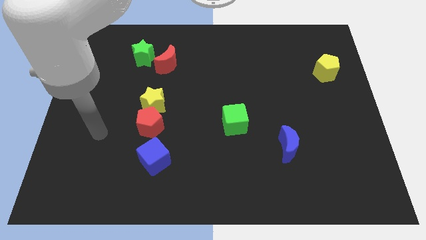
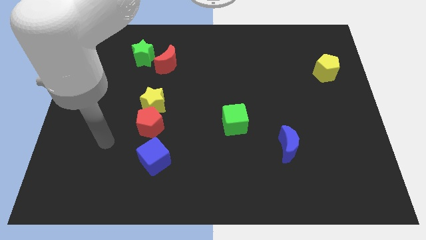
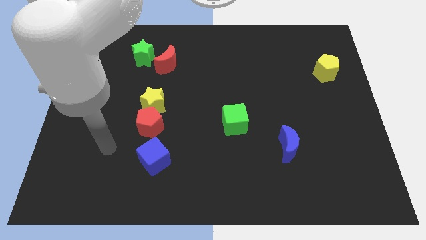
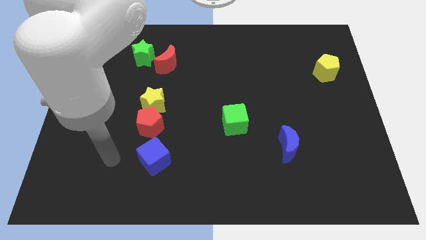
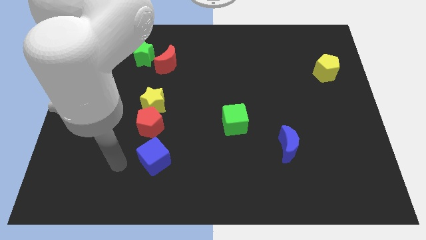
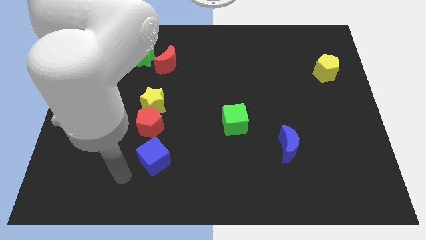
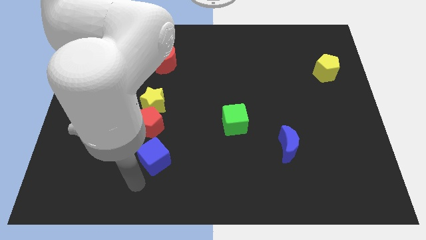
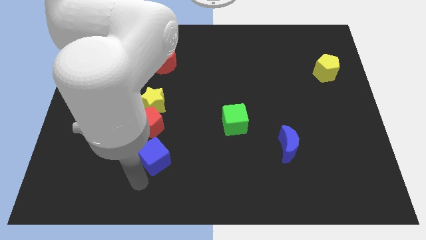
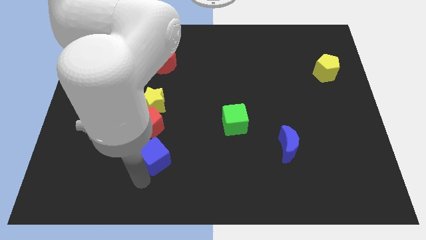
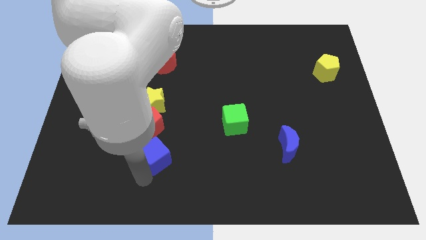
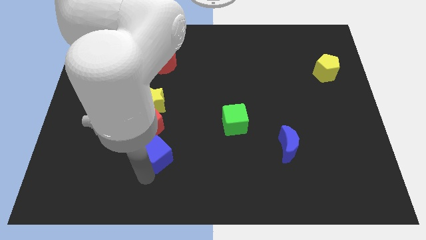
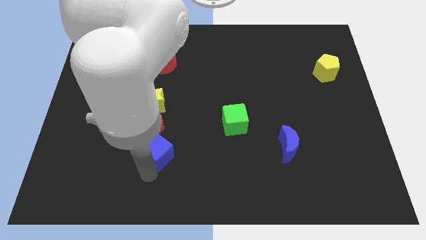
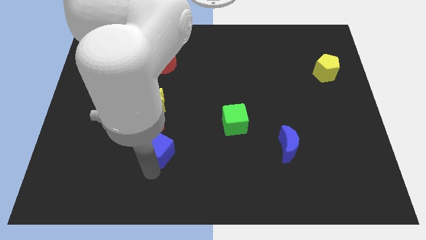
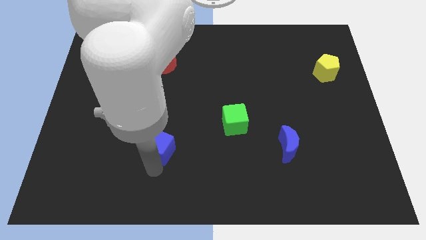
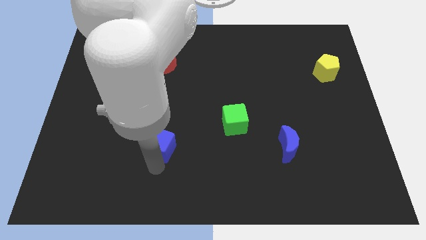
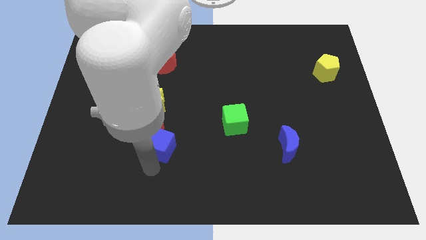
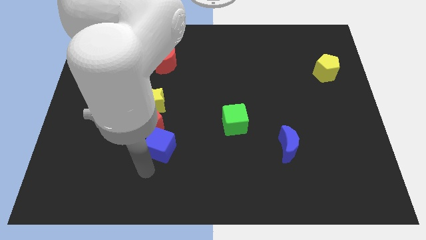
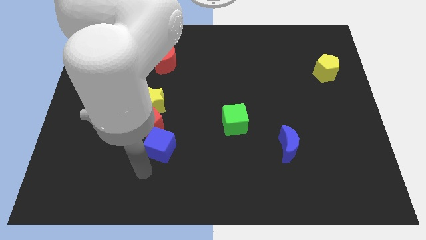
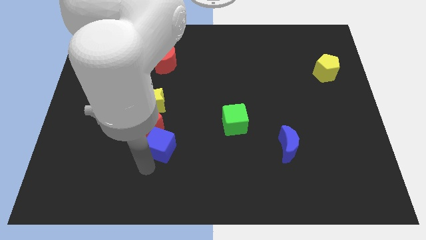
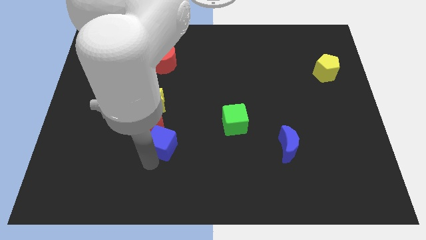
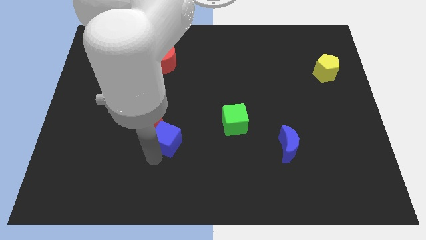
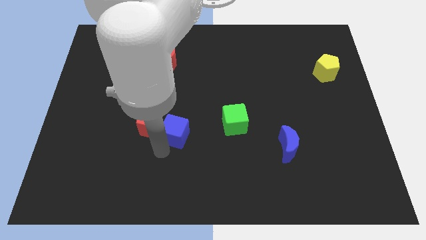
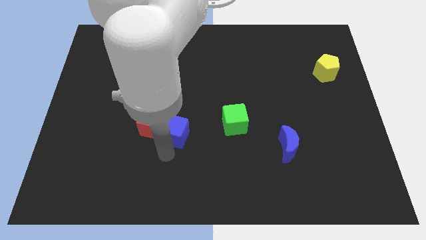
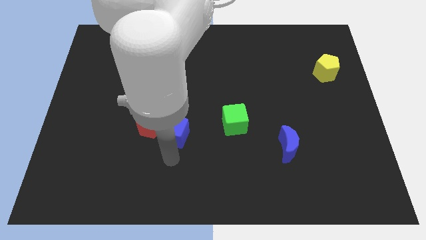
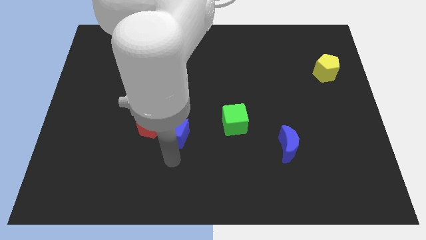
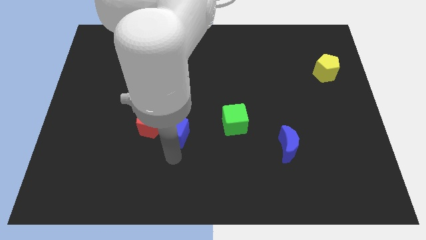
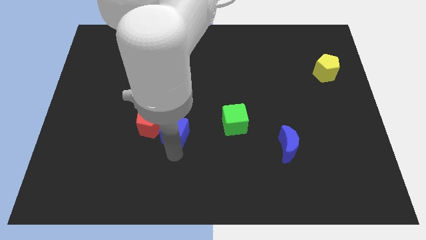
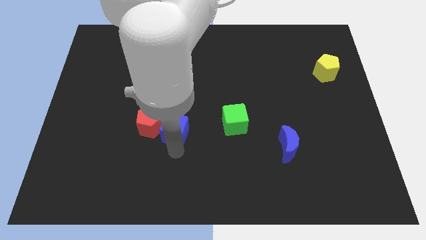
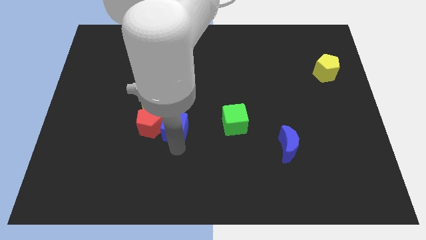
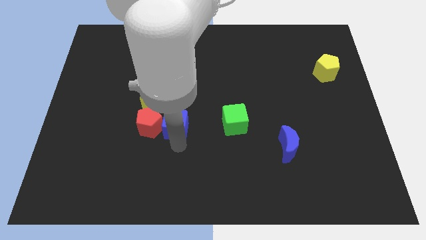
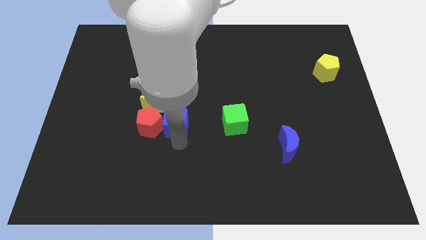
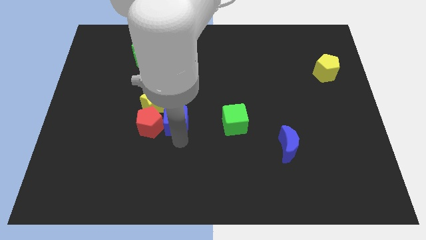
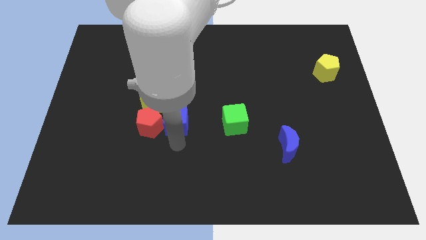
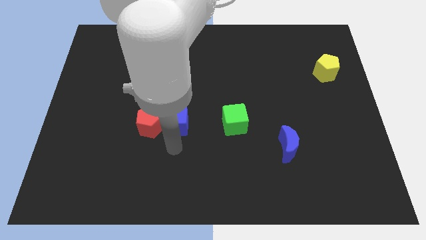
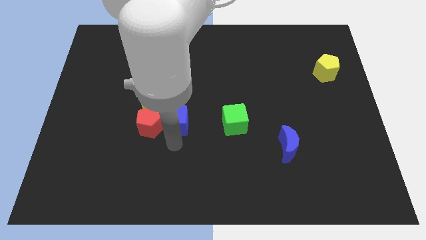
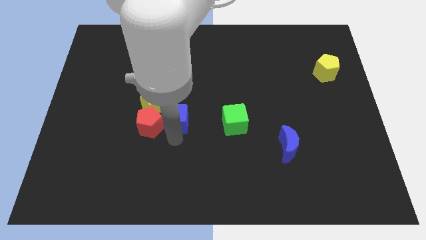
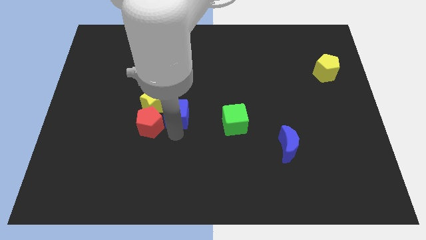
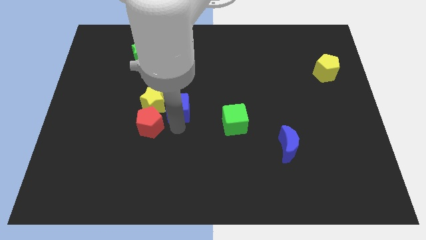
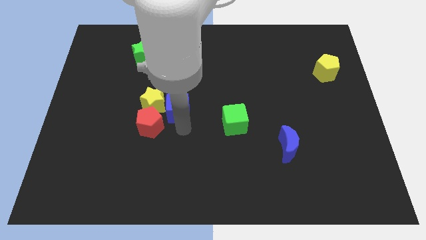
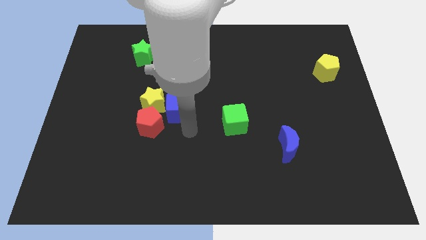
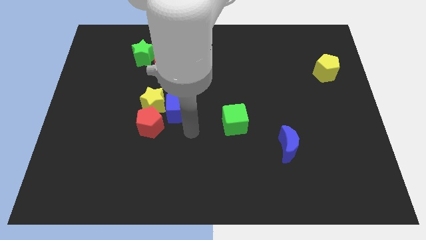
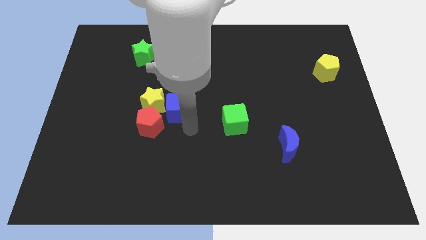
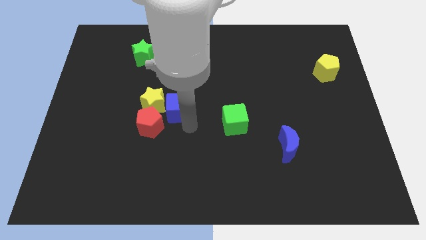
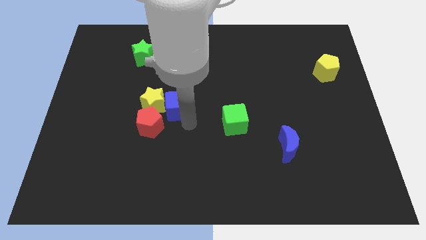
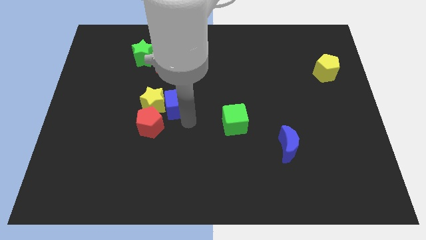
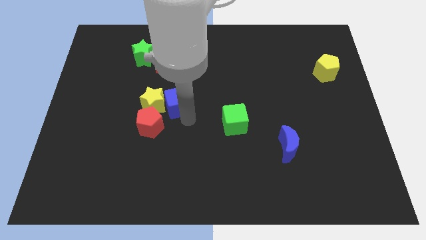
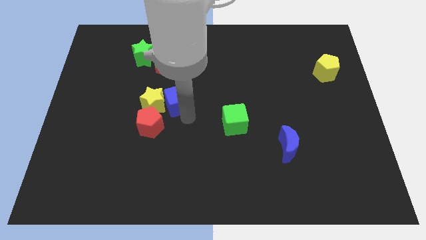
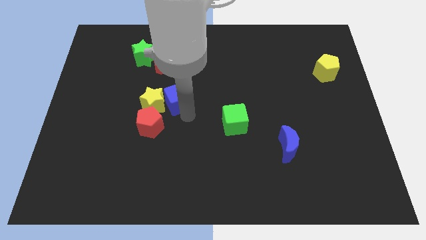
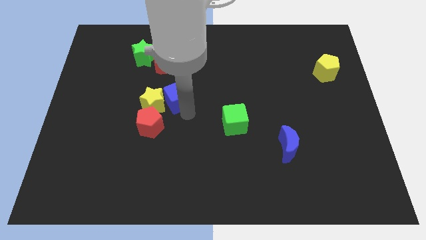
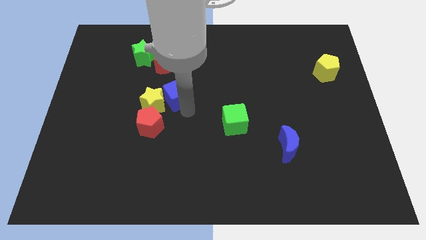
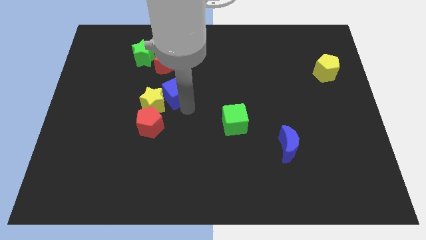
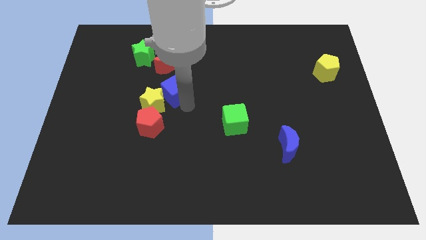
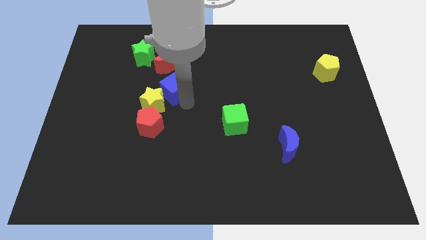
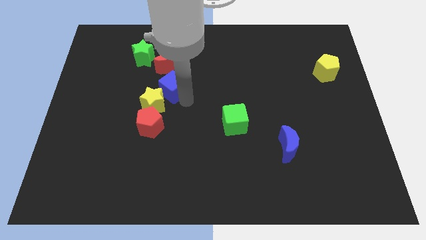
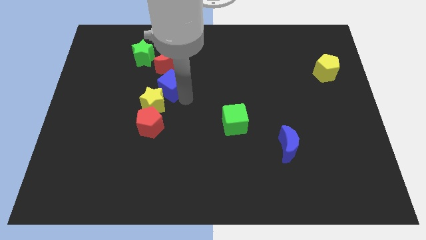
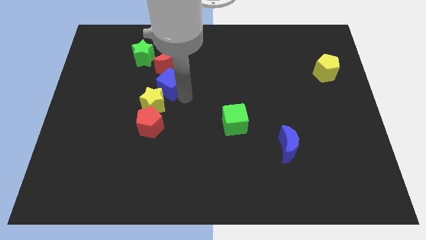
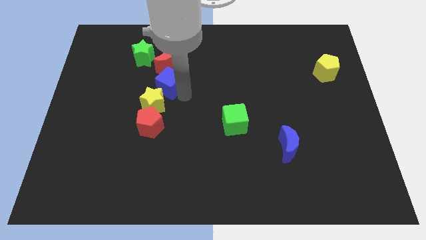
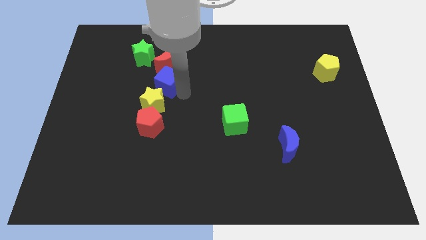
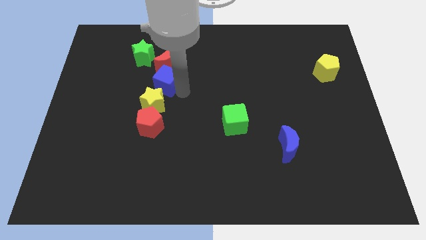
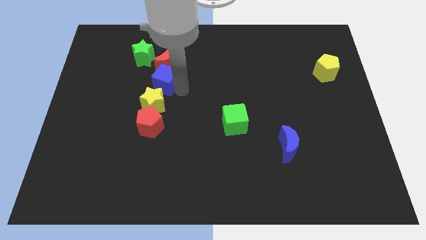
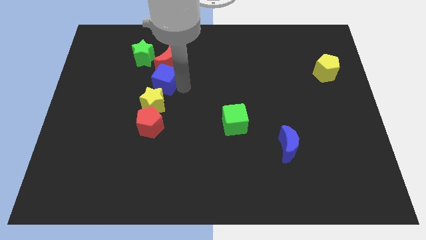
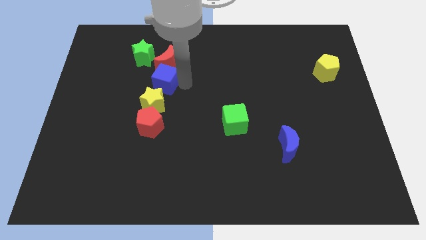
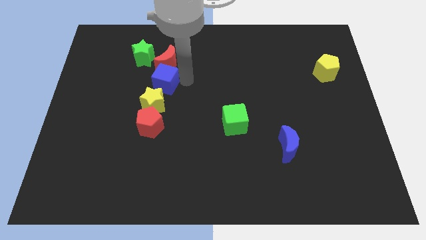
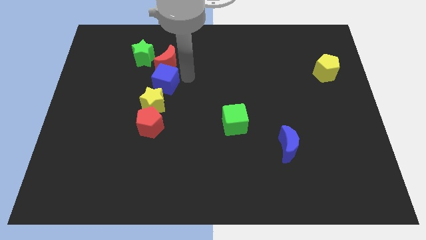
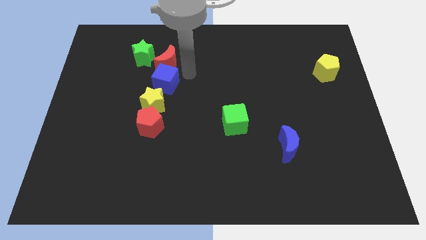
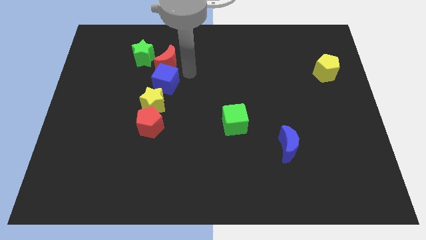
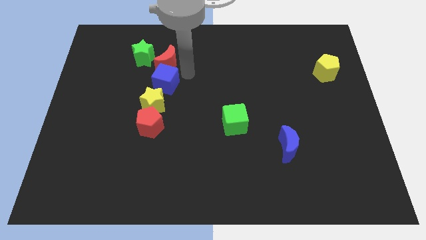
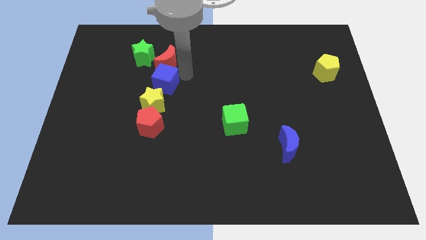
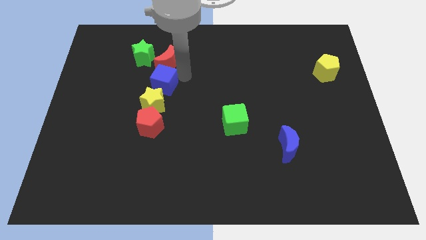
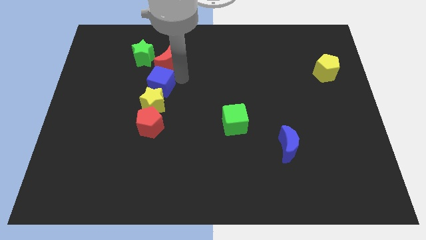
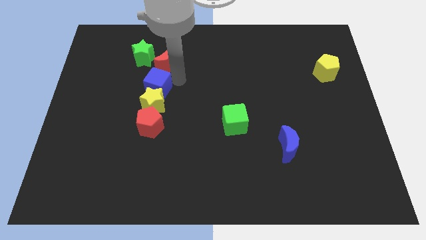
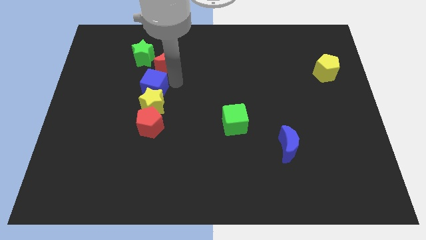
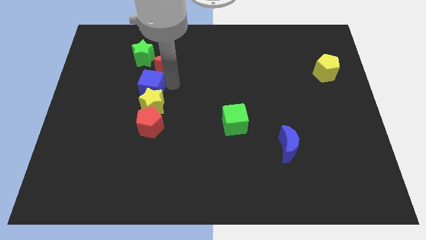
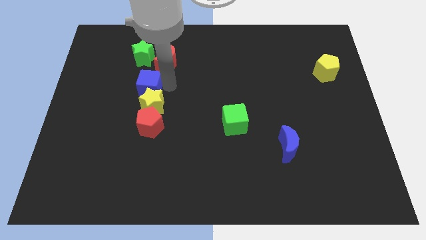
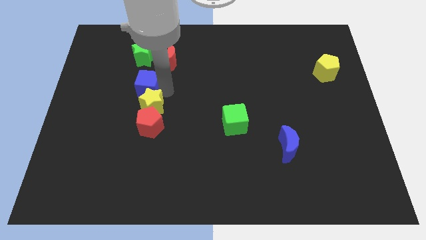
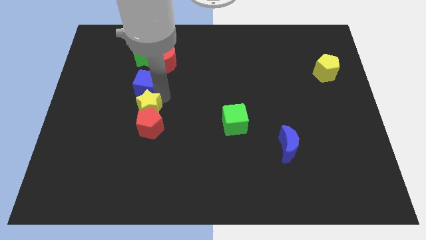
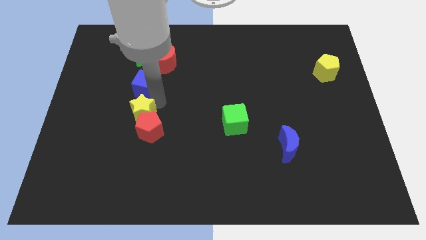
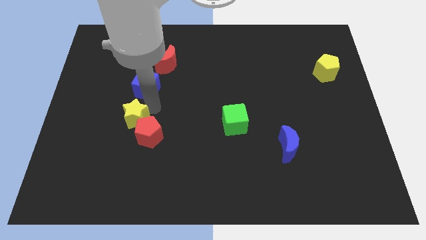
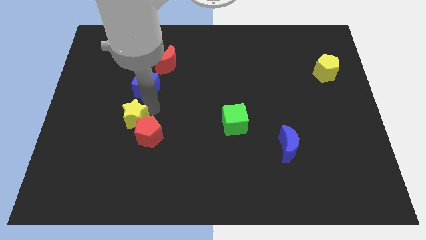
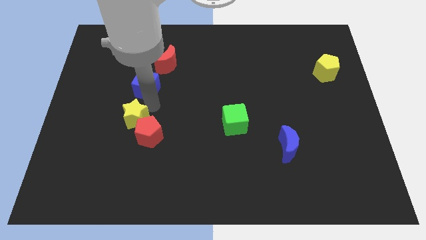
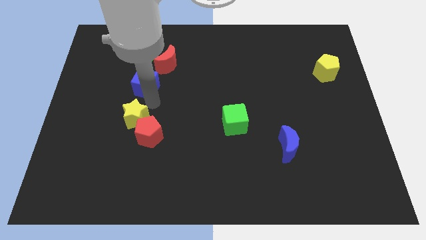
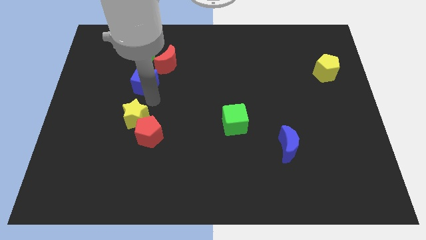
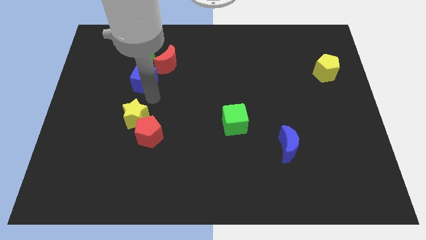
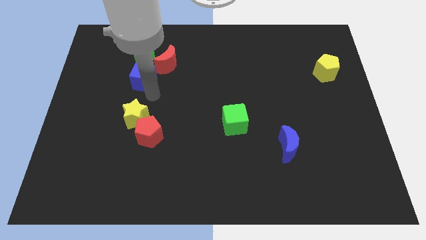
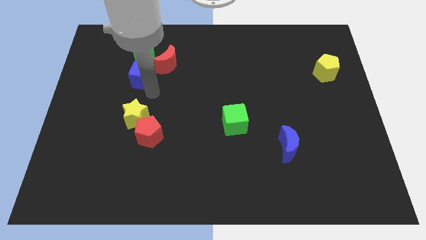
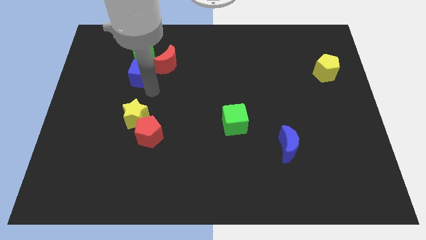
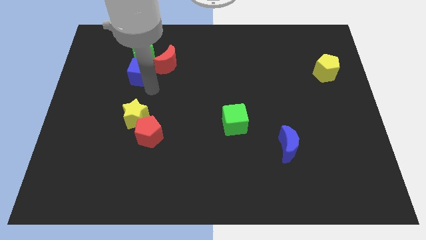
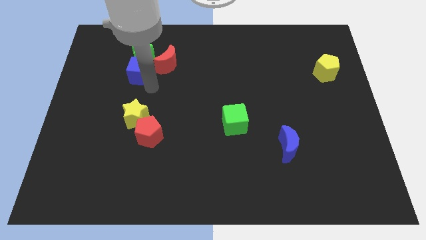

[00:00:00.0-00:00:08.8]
move the blue cube to the green star
